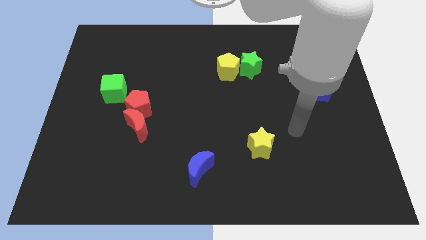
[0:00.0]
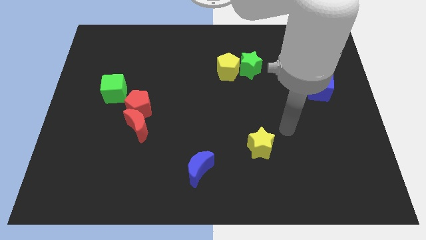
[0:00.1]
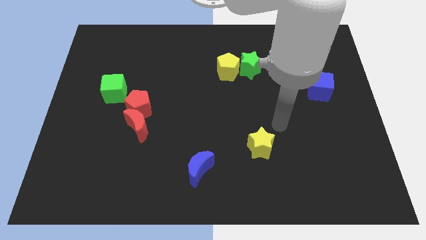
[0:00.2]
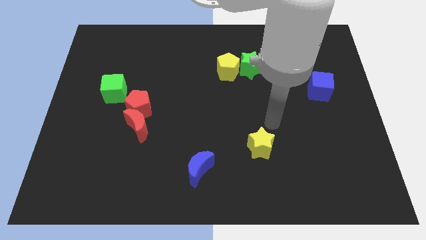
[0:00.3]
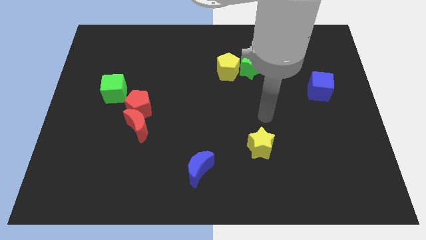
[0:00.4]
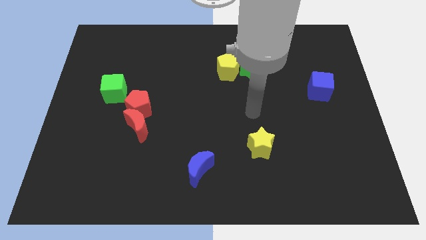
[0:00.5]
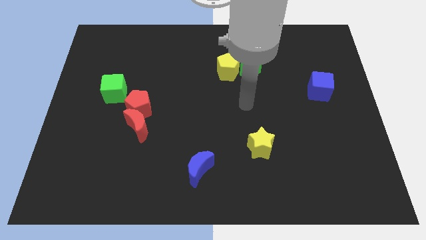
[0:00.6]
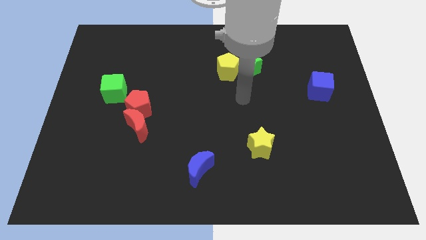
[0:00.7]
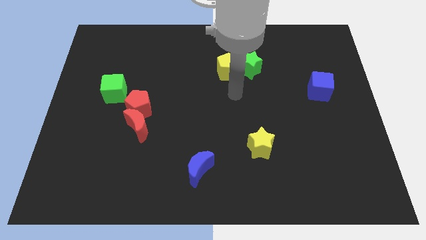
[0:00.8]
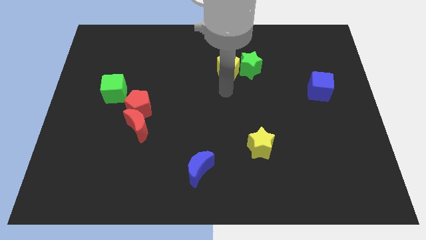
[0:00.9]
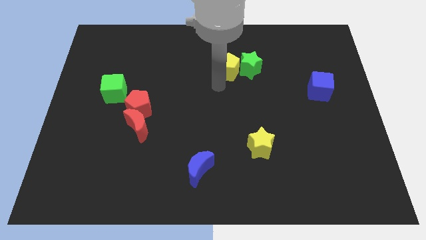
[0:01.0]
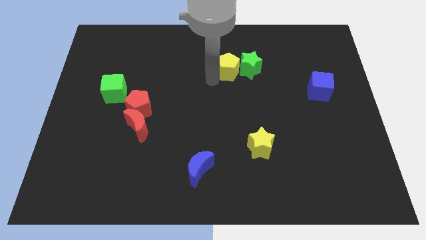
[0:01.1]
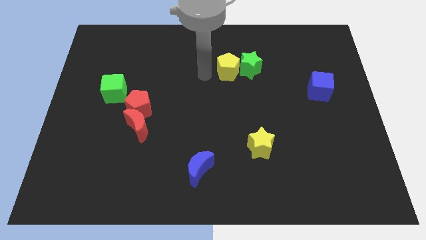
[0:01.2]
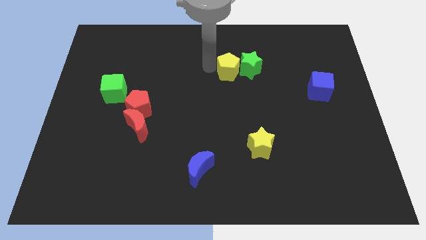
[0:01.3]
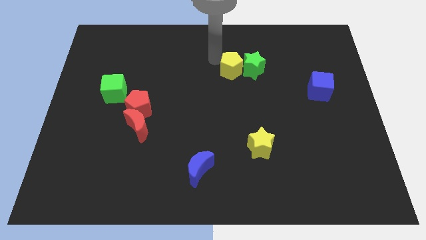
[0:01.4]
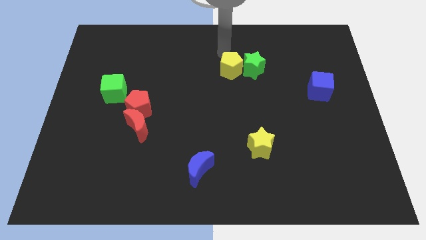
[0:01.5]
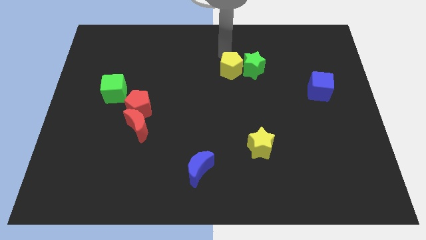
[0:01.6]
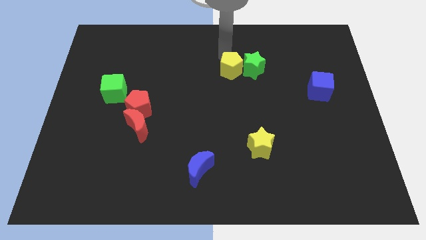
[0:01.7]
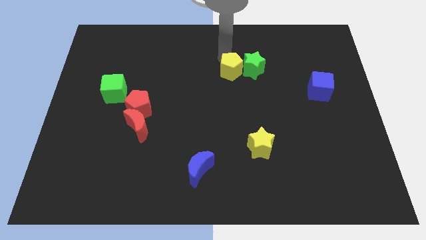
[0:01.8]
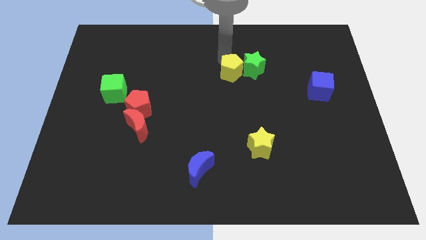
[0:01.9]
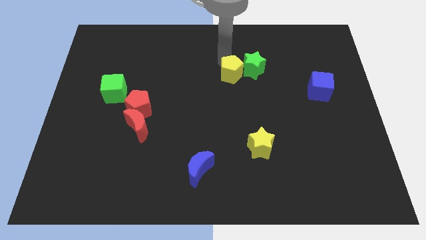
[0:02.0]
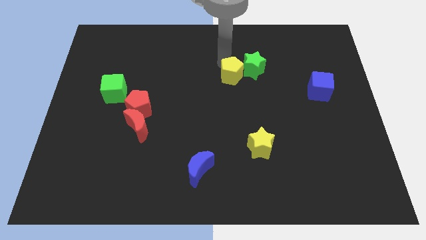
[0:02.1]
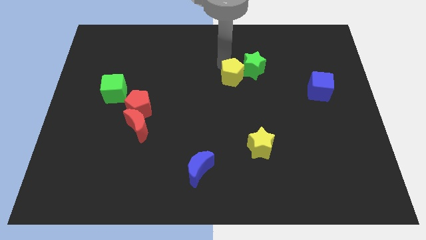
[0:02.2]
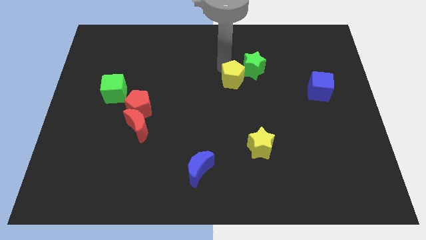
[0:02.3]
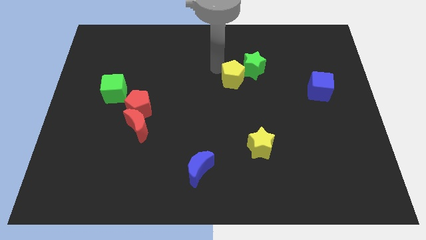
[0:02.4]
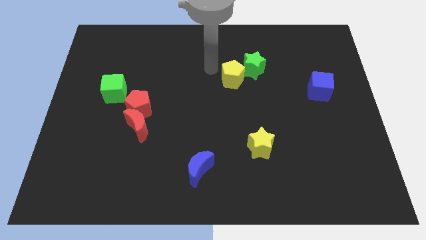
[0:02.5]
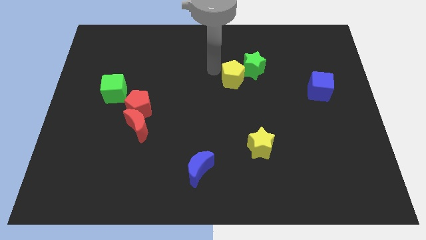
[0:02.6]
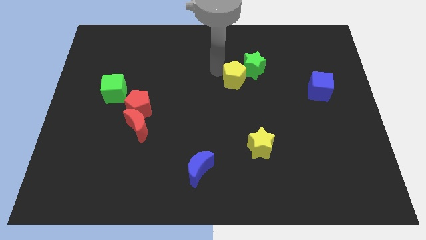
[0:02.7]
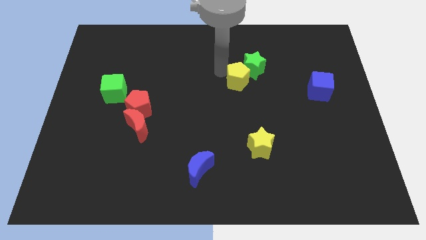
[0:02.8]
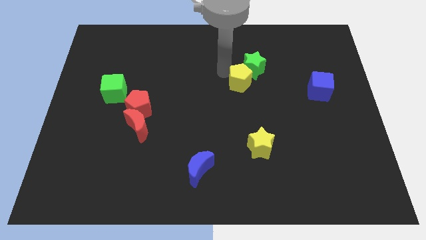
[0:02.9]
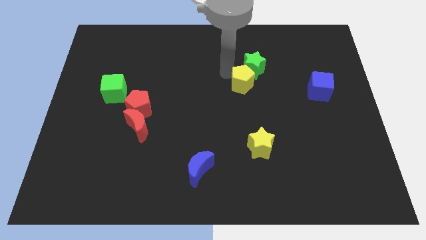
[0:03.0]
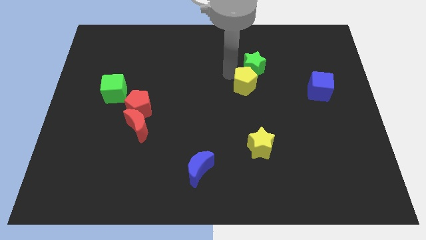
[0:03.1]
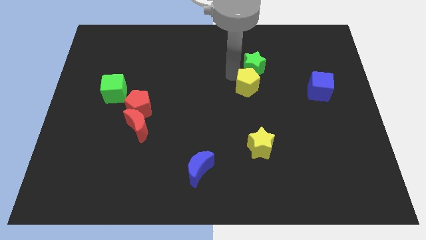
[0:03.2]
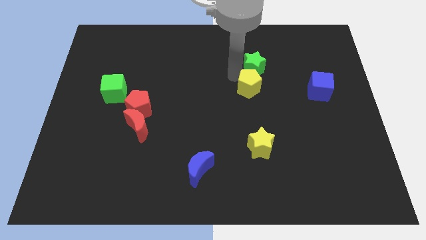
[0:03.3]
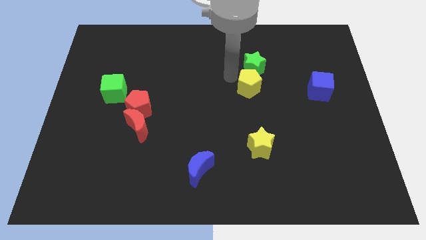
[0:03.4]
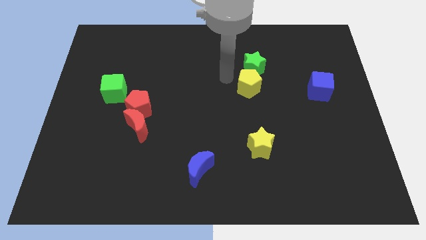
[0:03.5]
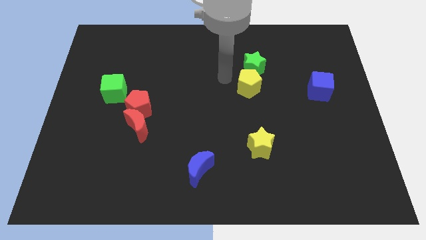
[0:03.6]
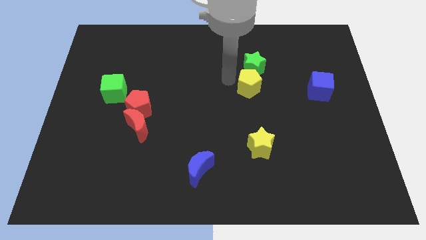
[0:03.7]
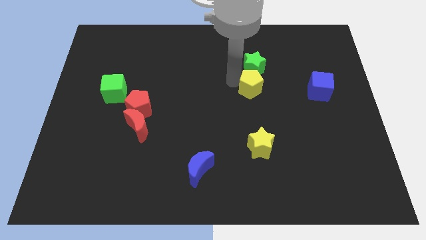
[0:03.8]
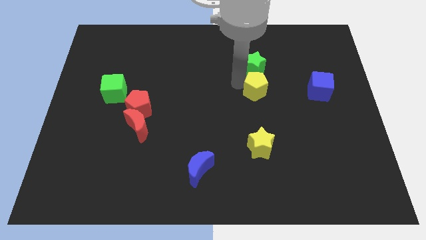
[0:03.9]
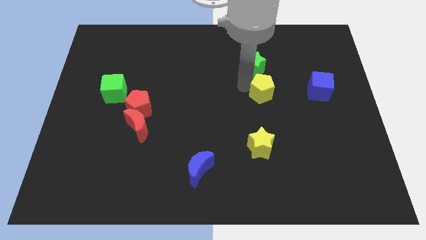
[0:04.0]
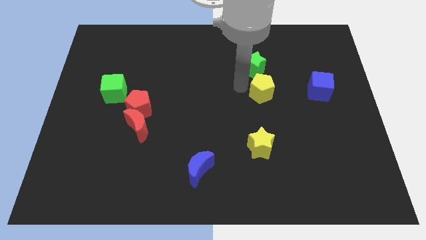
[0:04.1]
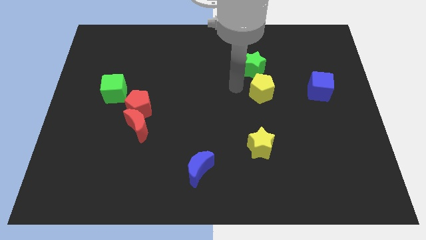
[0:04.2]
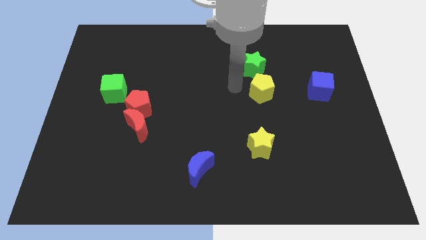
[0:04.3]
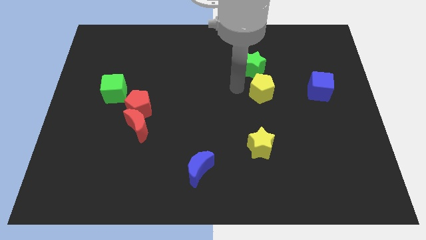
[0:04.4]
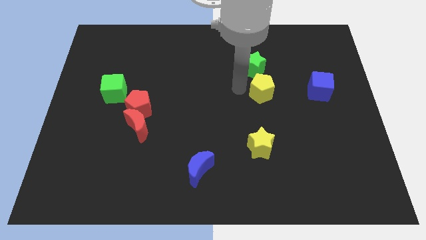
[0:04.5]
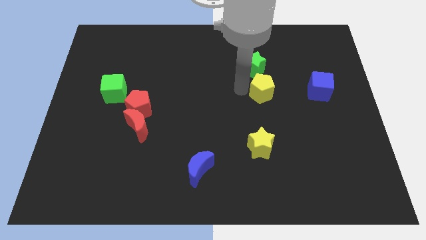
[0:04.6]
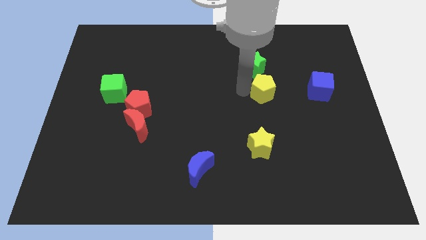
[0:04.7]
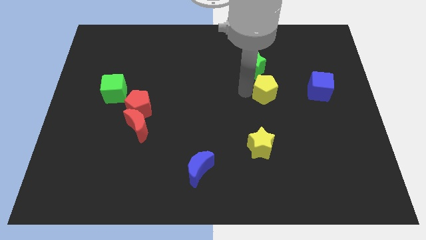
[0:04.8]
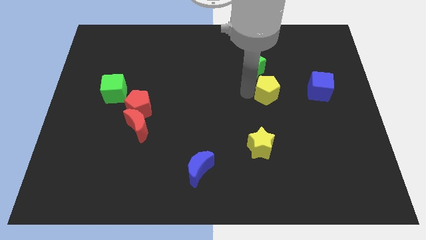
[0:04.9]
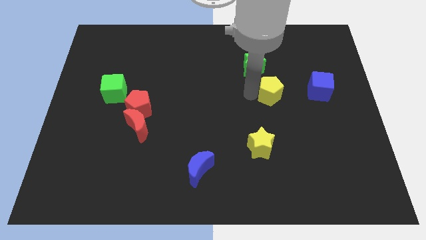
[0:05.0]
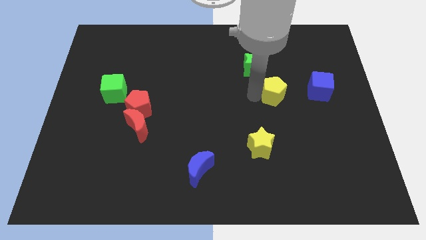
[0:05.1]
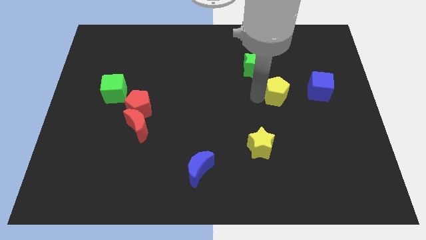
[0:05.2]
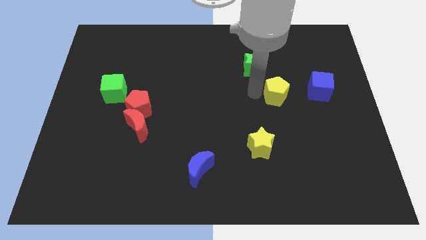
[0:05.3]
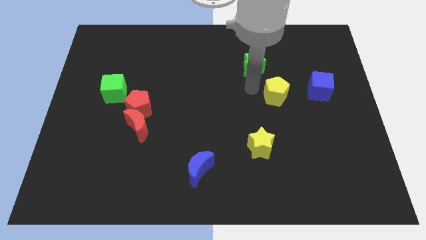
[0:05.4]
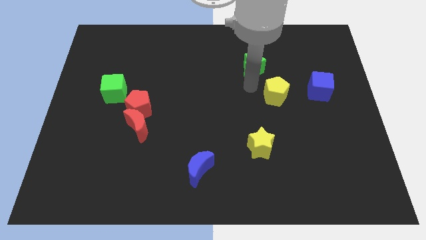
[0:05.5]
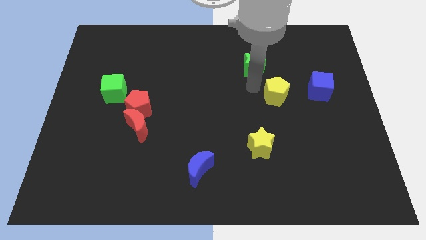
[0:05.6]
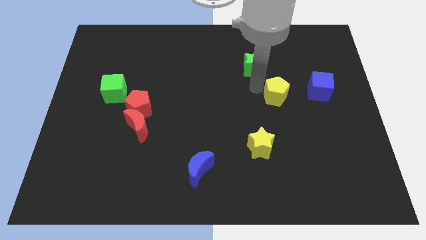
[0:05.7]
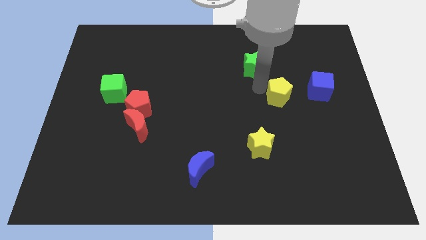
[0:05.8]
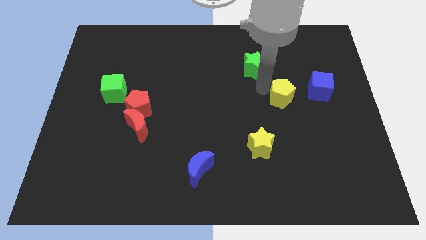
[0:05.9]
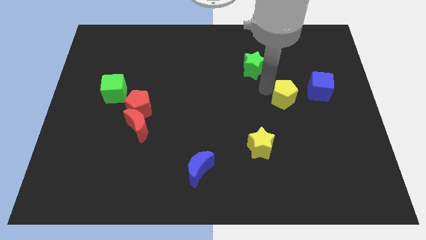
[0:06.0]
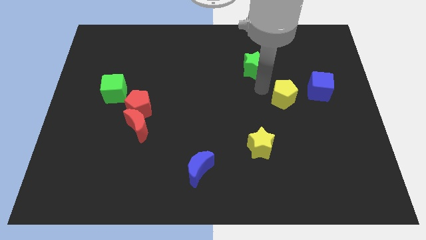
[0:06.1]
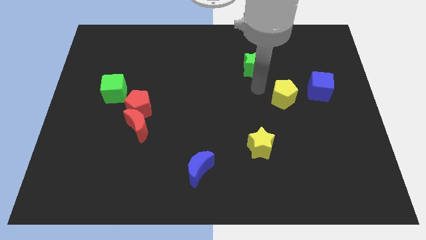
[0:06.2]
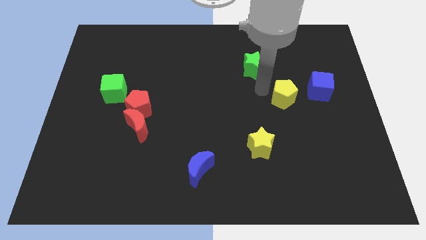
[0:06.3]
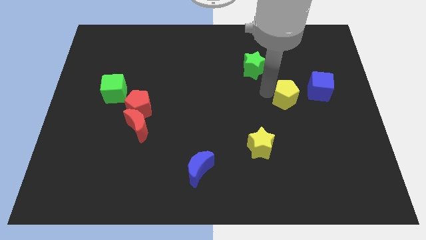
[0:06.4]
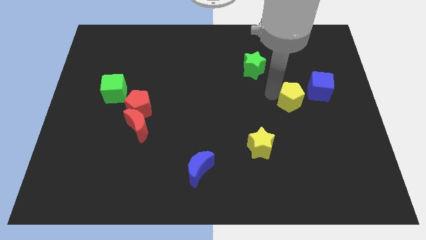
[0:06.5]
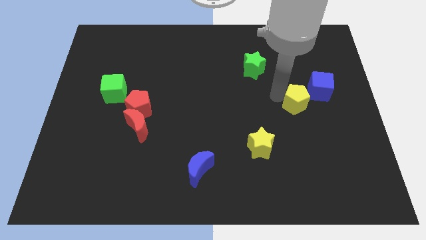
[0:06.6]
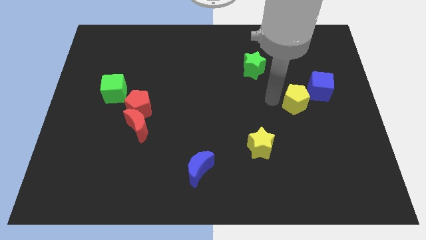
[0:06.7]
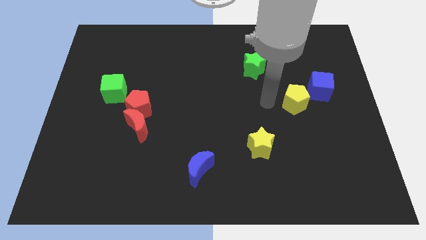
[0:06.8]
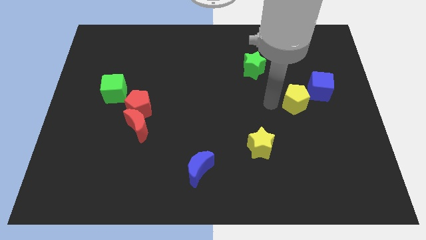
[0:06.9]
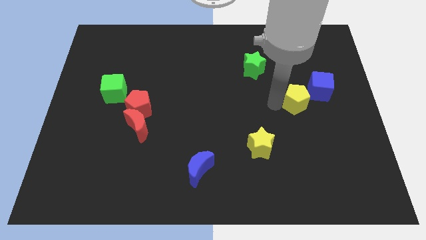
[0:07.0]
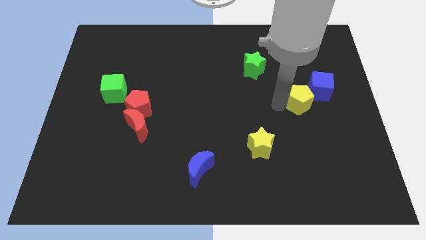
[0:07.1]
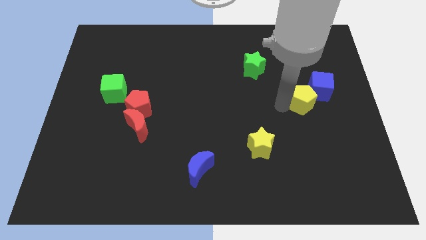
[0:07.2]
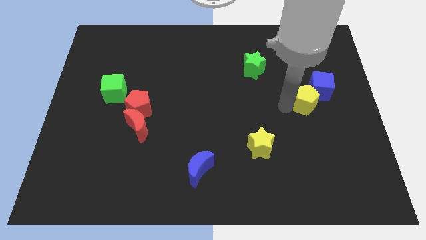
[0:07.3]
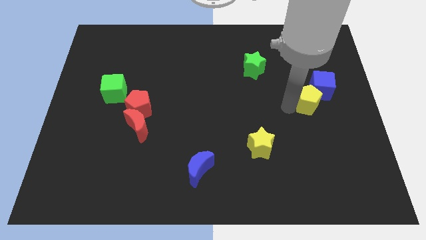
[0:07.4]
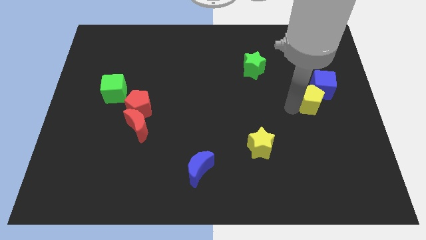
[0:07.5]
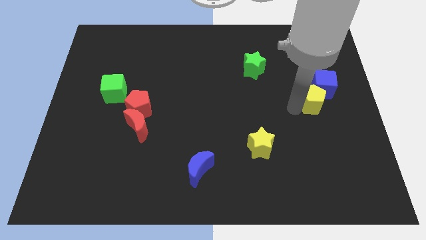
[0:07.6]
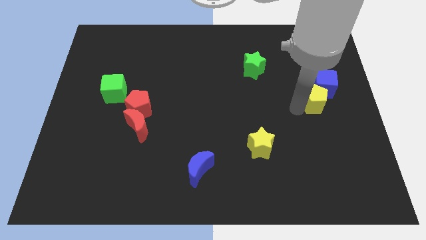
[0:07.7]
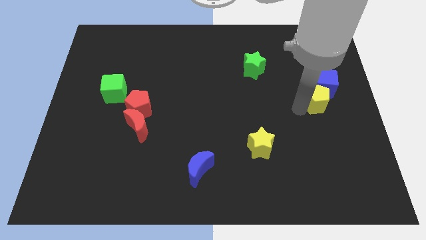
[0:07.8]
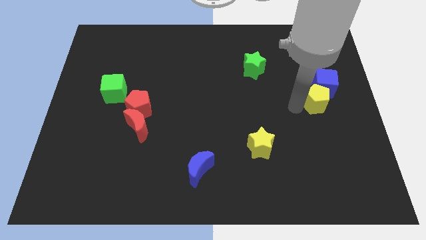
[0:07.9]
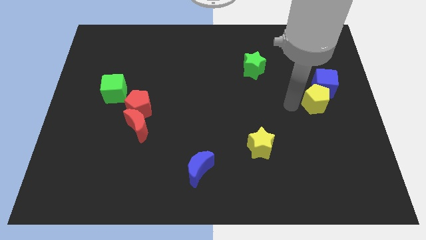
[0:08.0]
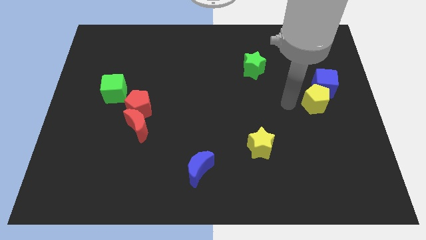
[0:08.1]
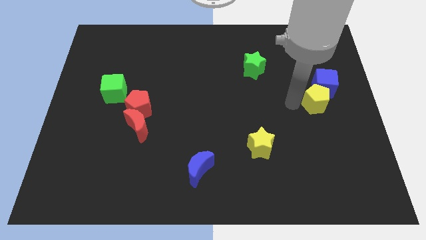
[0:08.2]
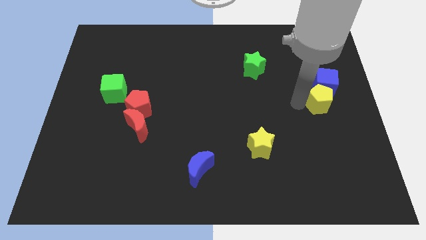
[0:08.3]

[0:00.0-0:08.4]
push the yellow pentagon to the right side
